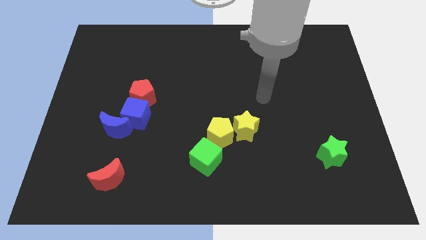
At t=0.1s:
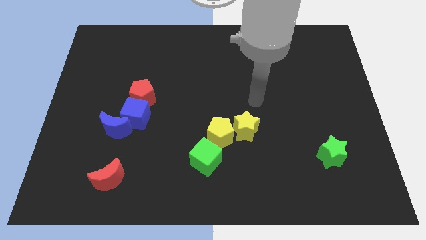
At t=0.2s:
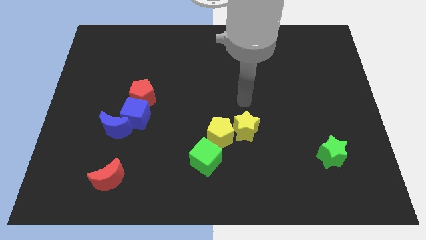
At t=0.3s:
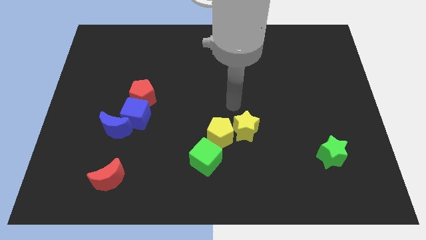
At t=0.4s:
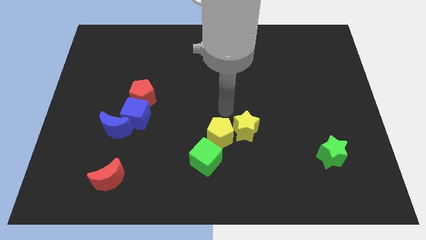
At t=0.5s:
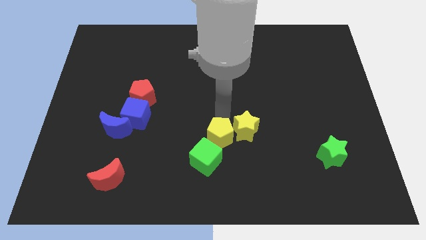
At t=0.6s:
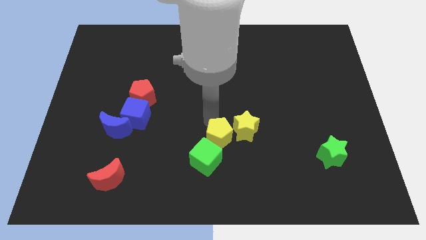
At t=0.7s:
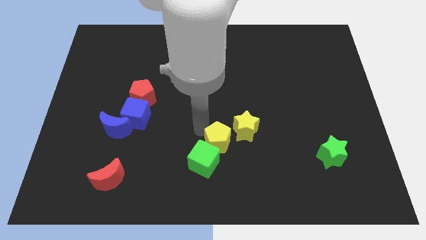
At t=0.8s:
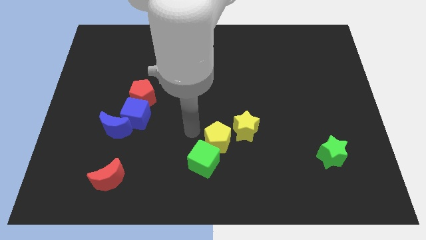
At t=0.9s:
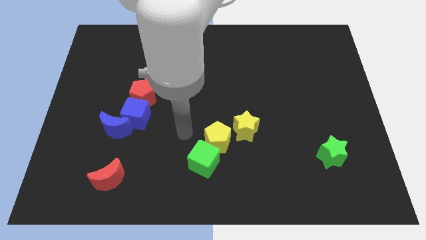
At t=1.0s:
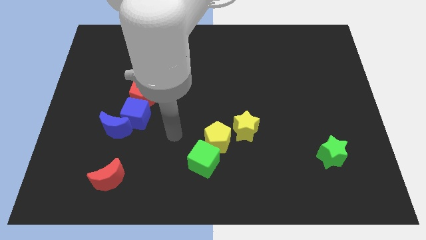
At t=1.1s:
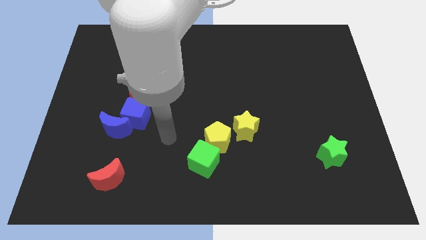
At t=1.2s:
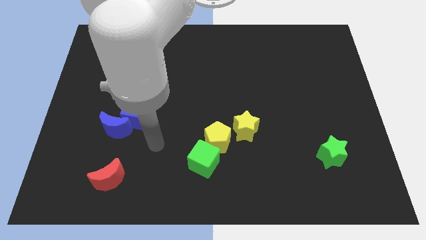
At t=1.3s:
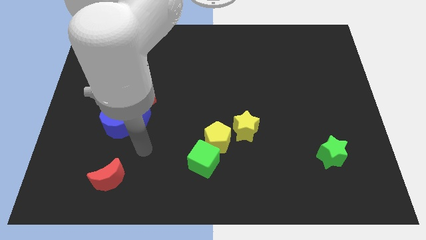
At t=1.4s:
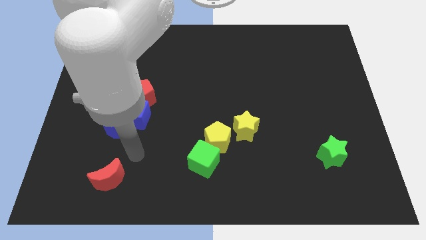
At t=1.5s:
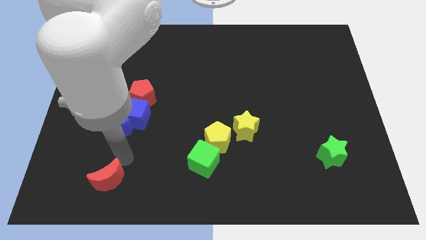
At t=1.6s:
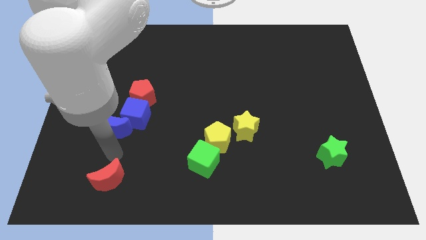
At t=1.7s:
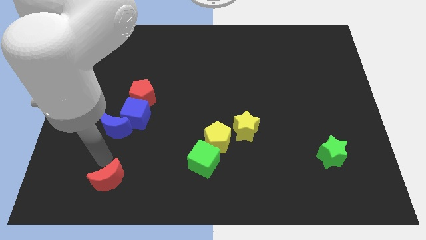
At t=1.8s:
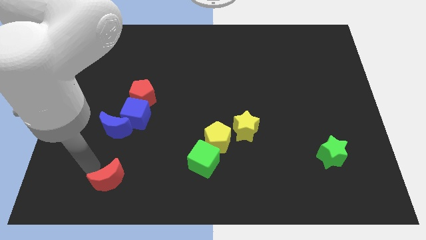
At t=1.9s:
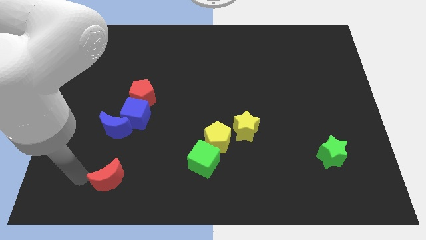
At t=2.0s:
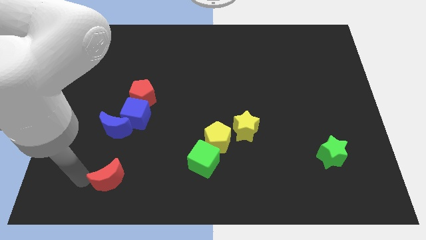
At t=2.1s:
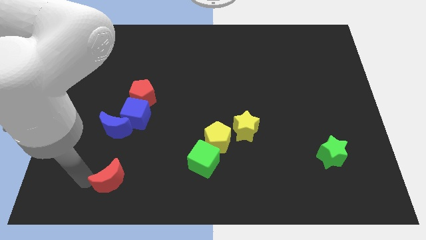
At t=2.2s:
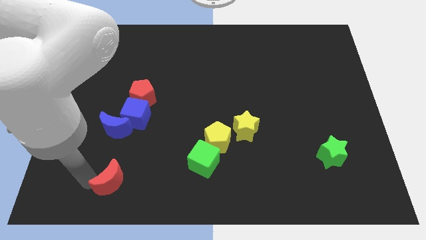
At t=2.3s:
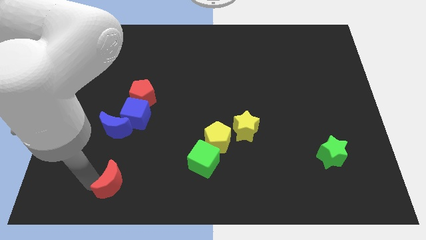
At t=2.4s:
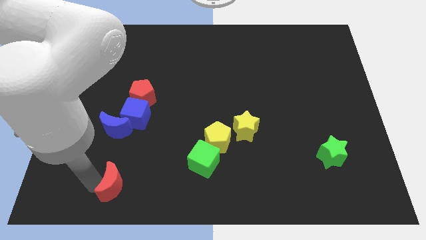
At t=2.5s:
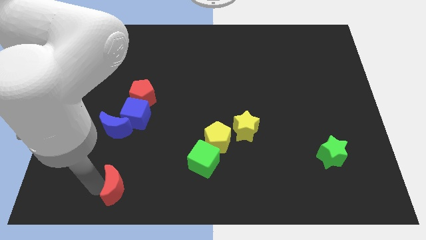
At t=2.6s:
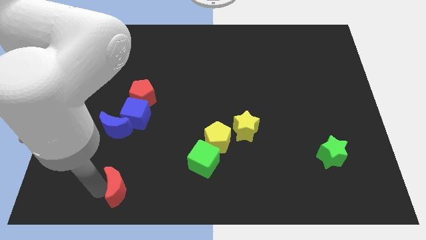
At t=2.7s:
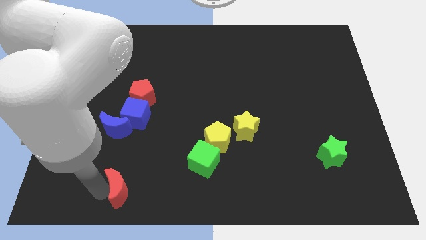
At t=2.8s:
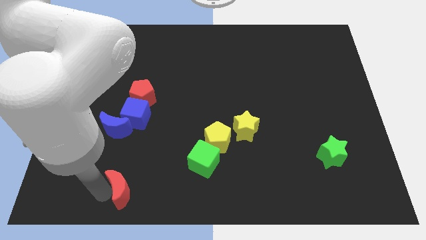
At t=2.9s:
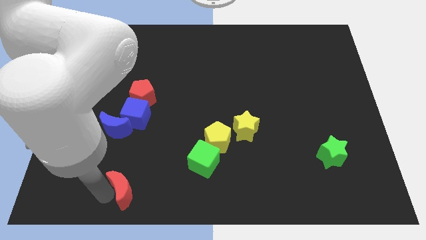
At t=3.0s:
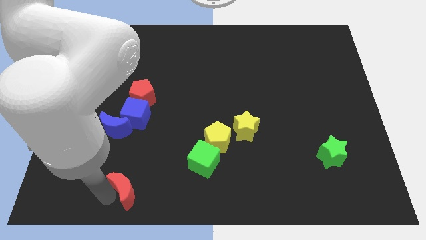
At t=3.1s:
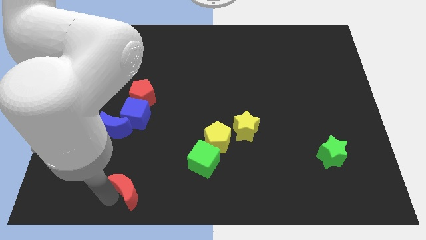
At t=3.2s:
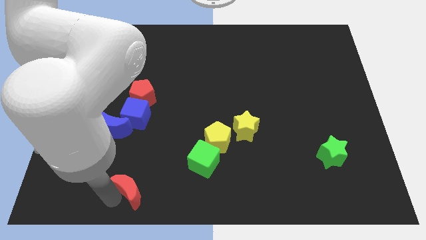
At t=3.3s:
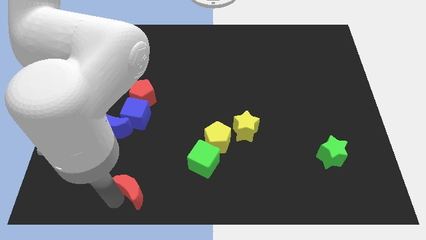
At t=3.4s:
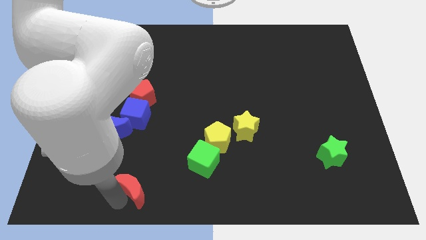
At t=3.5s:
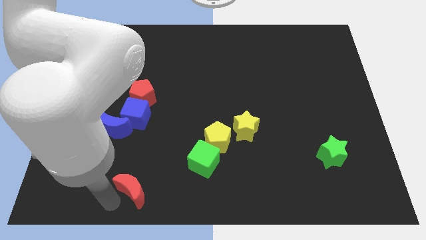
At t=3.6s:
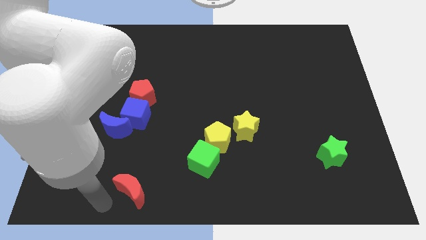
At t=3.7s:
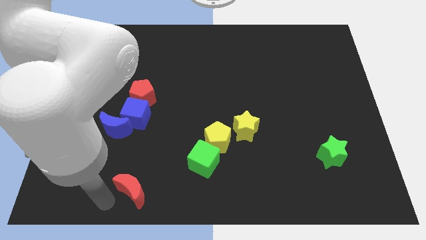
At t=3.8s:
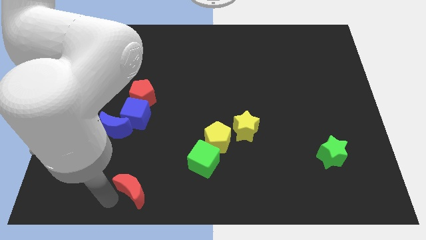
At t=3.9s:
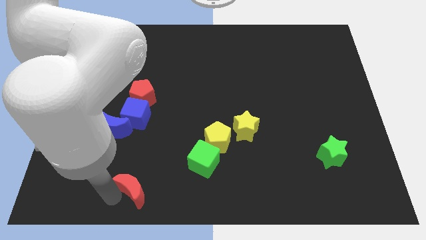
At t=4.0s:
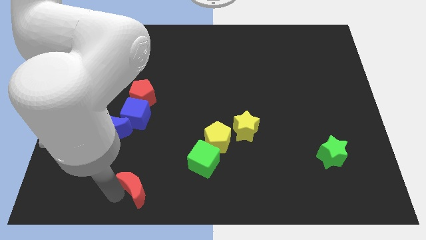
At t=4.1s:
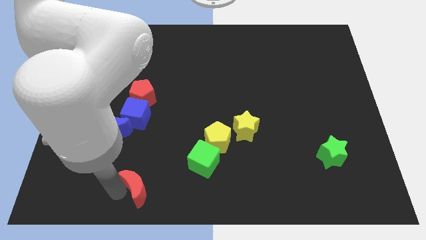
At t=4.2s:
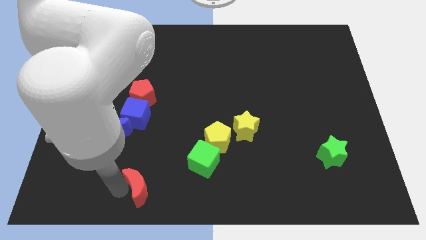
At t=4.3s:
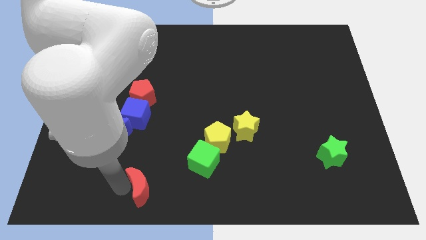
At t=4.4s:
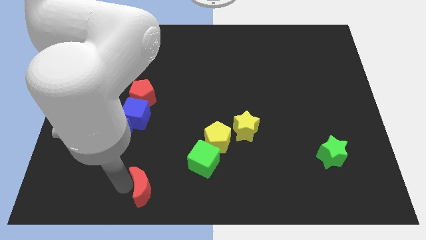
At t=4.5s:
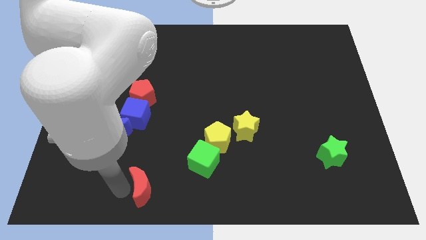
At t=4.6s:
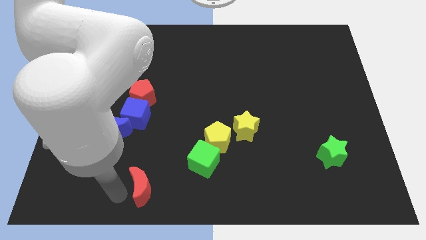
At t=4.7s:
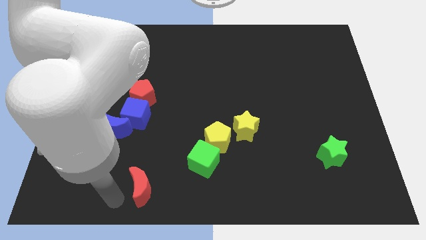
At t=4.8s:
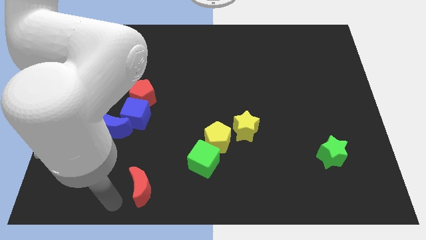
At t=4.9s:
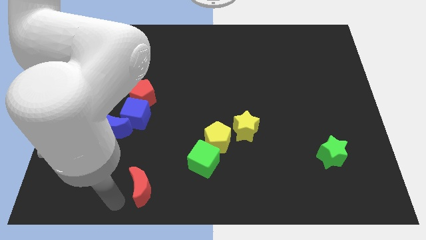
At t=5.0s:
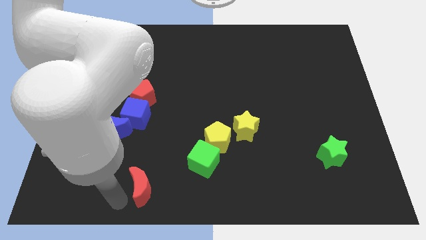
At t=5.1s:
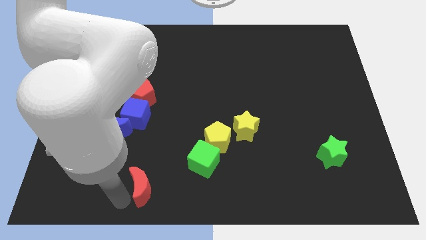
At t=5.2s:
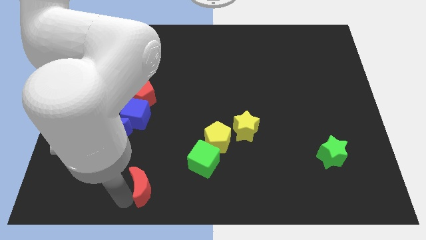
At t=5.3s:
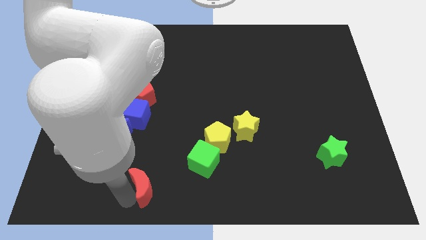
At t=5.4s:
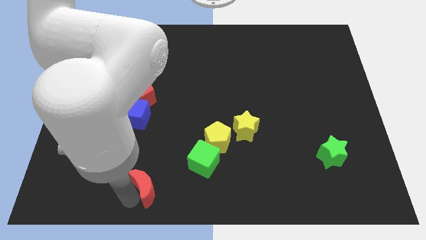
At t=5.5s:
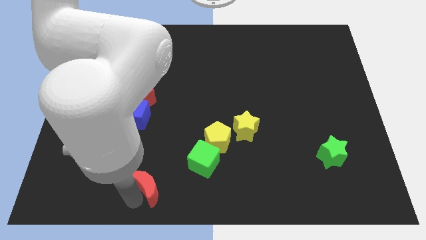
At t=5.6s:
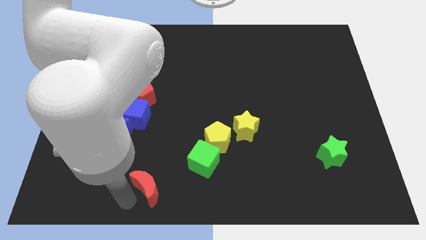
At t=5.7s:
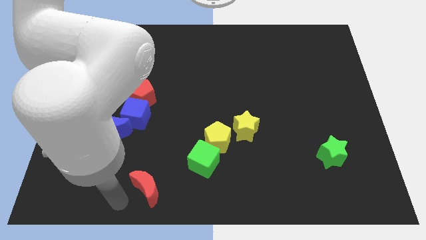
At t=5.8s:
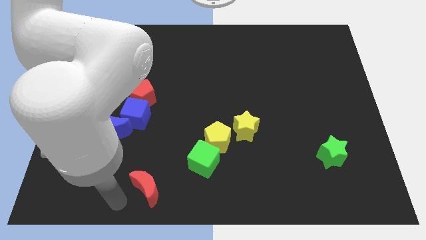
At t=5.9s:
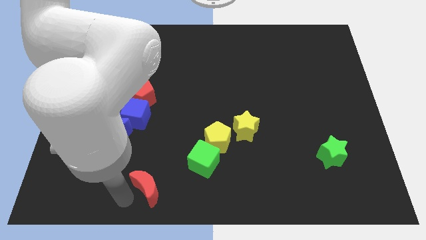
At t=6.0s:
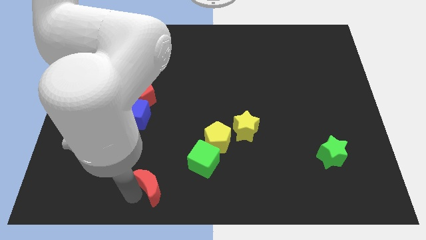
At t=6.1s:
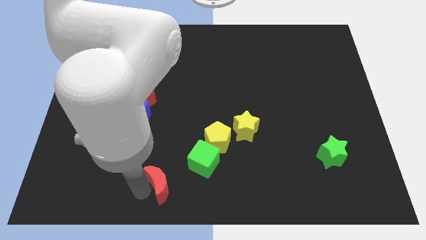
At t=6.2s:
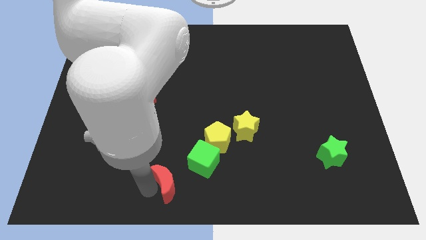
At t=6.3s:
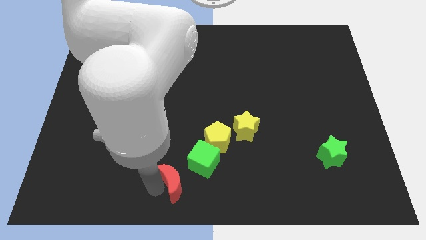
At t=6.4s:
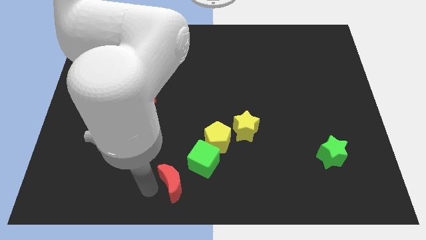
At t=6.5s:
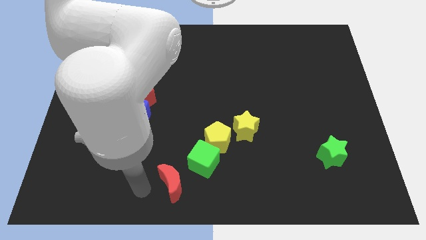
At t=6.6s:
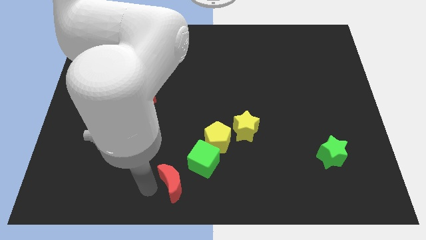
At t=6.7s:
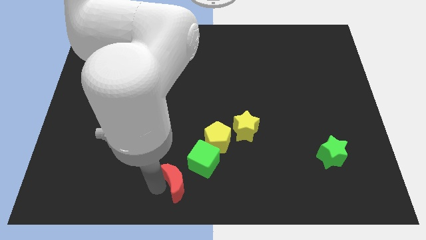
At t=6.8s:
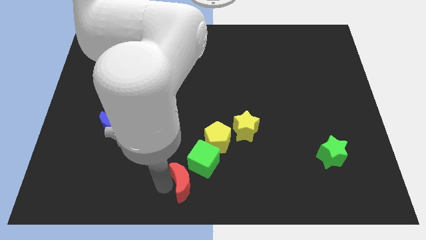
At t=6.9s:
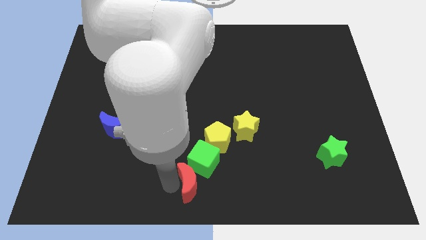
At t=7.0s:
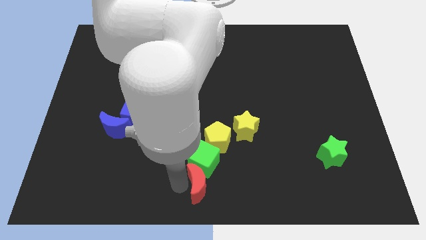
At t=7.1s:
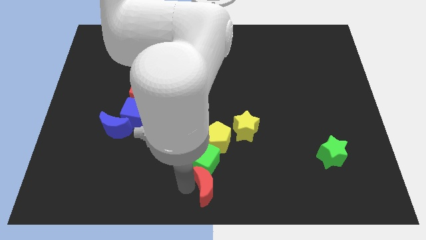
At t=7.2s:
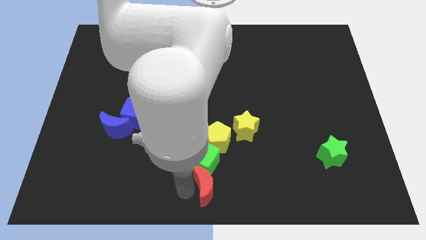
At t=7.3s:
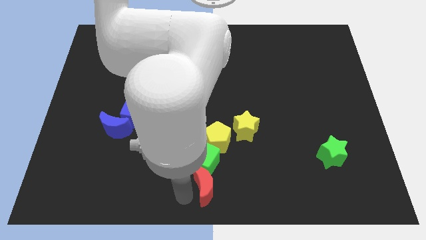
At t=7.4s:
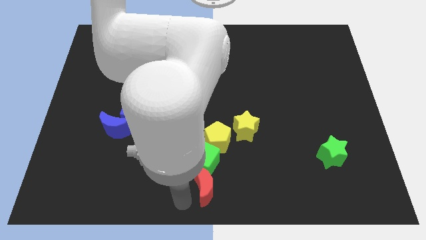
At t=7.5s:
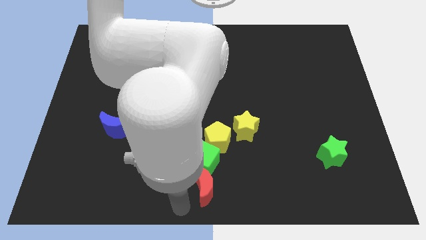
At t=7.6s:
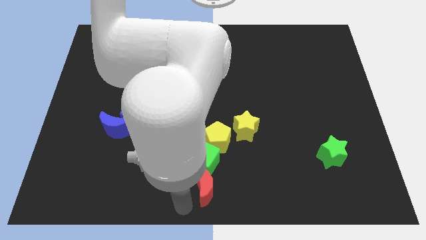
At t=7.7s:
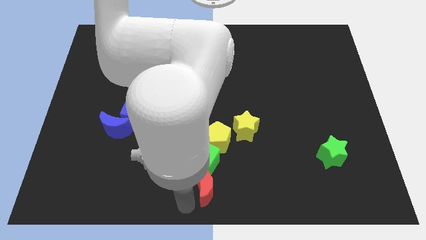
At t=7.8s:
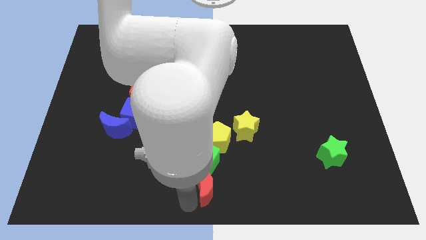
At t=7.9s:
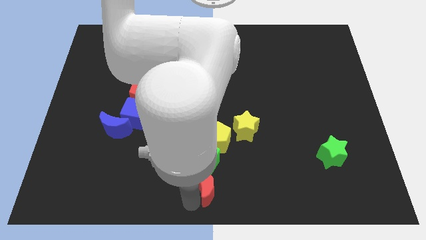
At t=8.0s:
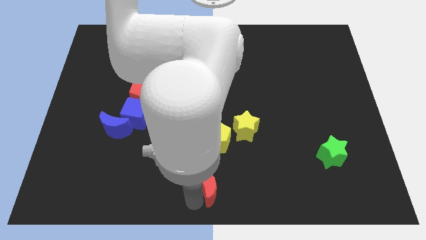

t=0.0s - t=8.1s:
move the red moon to the right
